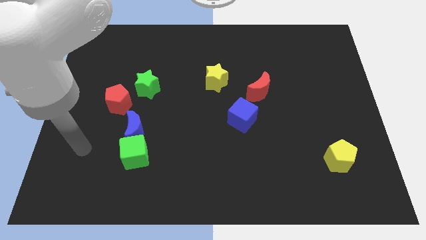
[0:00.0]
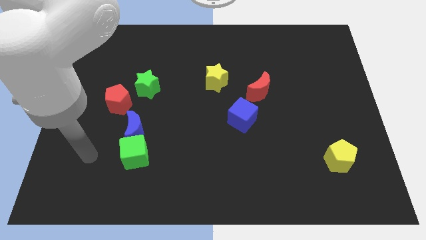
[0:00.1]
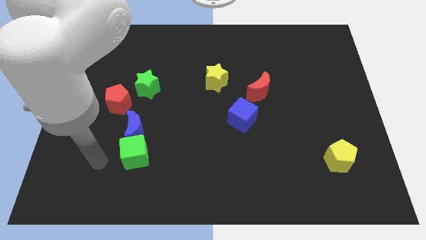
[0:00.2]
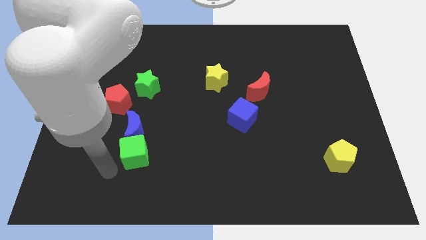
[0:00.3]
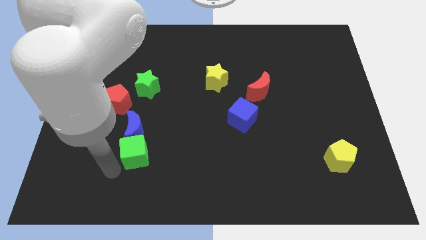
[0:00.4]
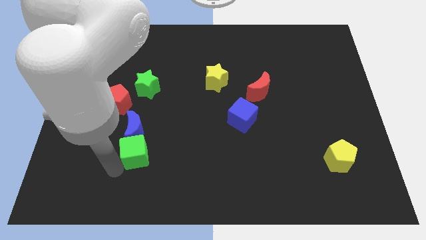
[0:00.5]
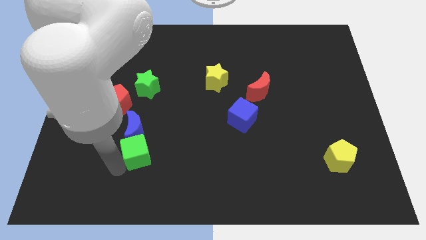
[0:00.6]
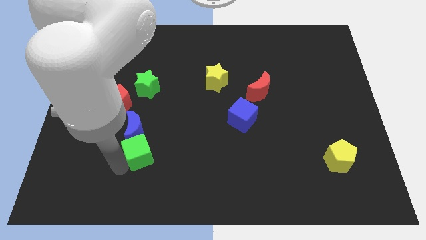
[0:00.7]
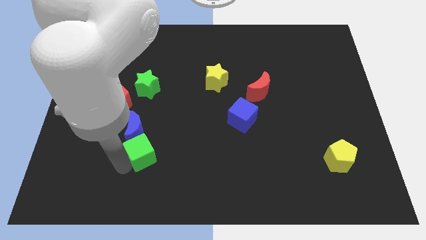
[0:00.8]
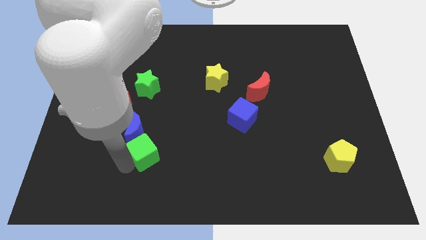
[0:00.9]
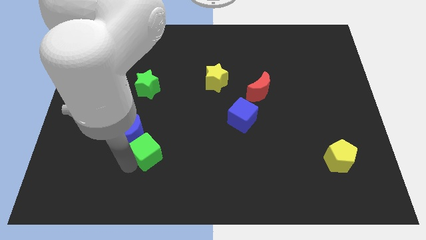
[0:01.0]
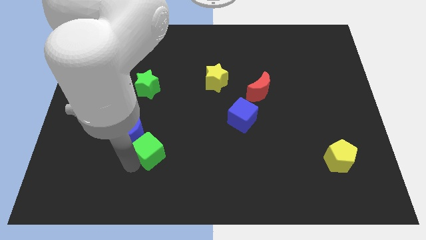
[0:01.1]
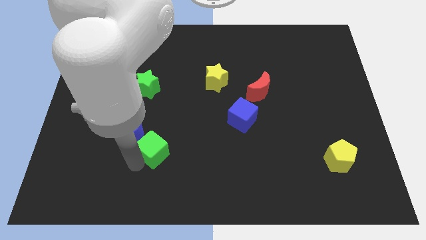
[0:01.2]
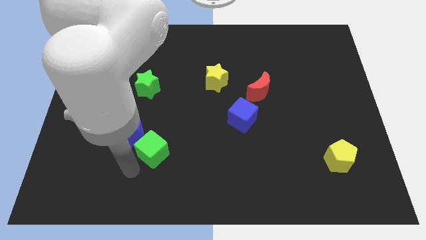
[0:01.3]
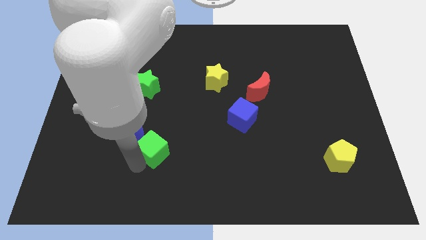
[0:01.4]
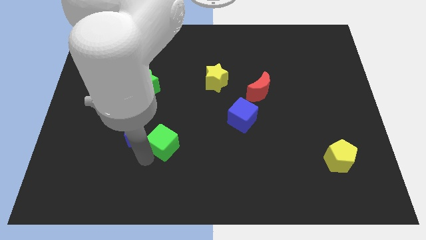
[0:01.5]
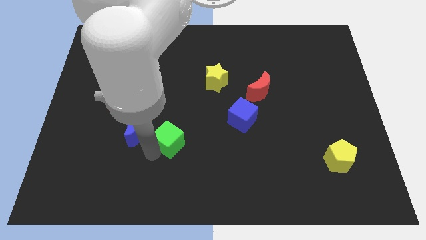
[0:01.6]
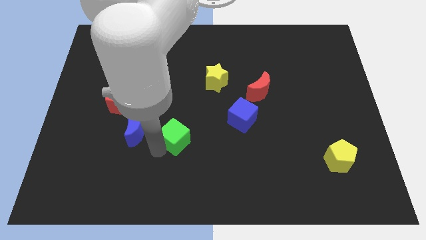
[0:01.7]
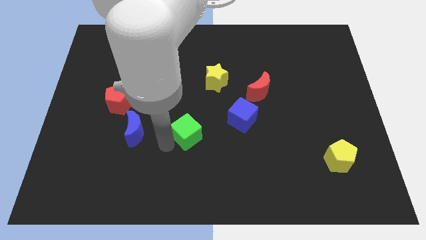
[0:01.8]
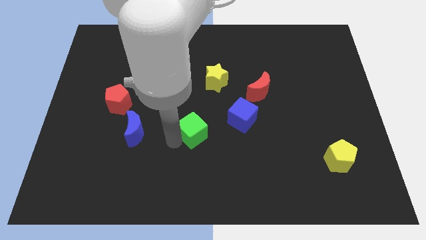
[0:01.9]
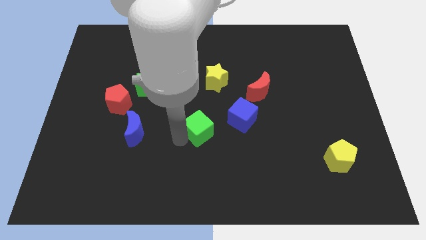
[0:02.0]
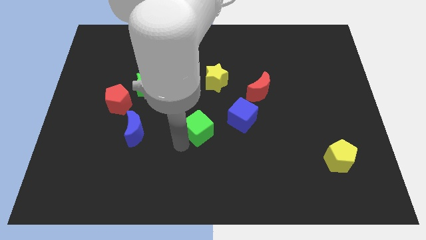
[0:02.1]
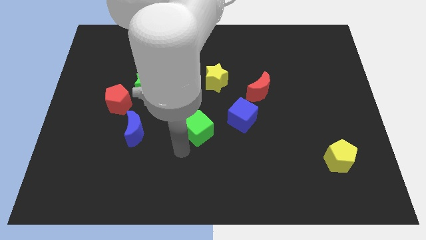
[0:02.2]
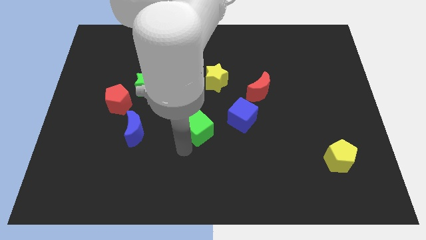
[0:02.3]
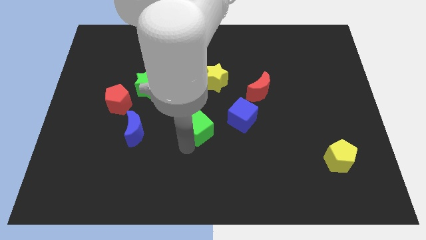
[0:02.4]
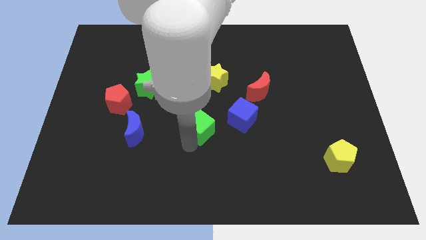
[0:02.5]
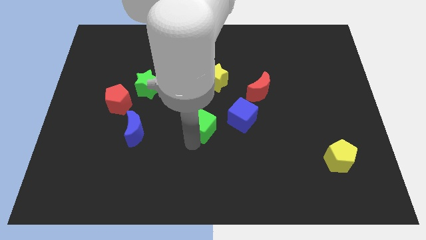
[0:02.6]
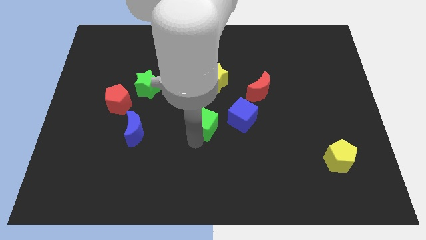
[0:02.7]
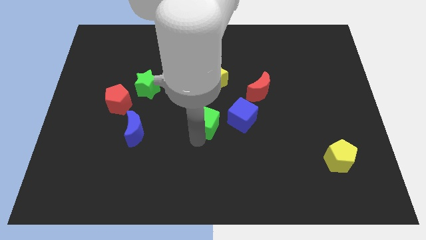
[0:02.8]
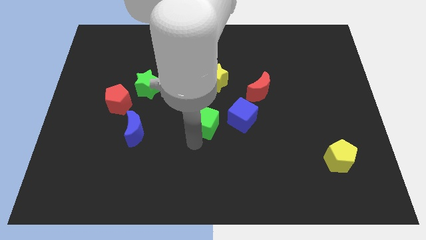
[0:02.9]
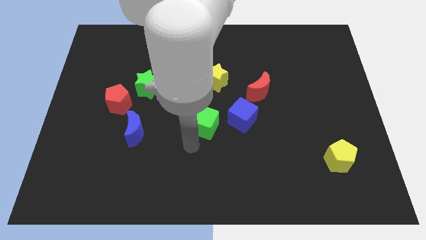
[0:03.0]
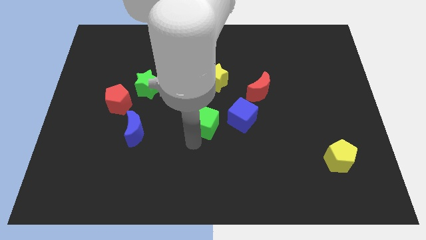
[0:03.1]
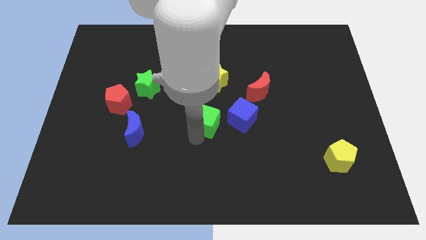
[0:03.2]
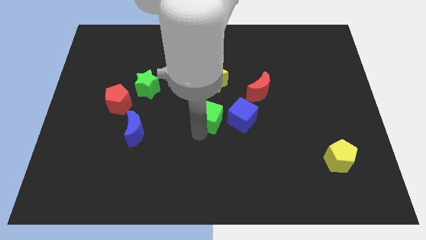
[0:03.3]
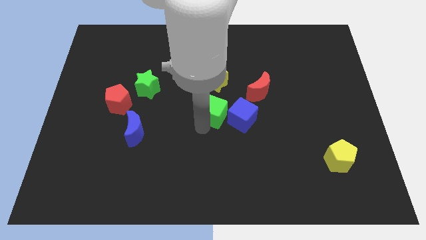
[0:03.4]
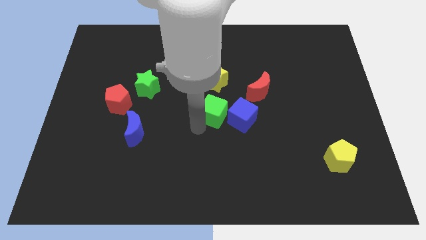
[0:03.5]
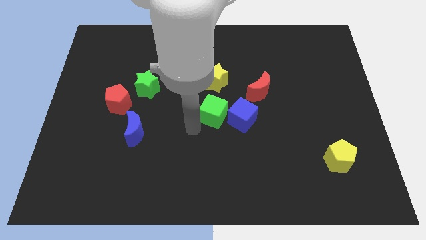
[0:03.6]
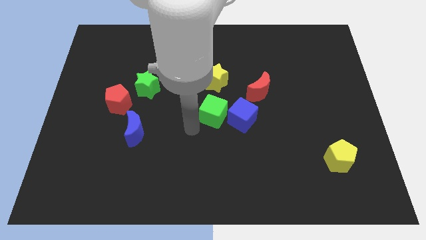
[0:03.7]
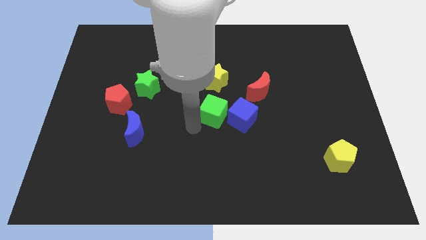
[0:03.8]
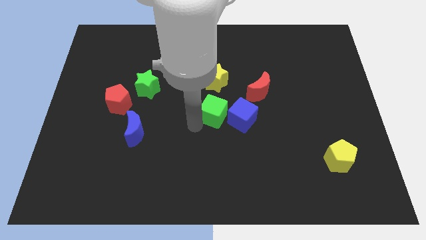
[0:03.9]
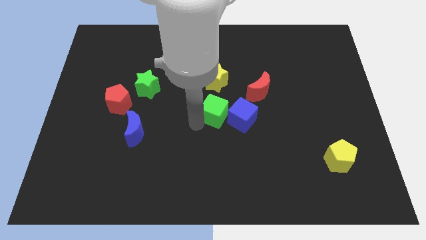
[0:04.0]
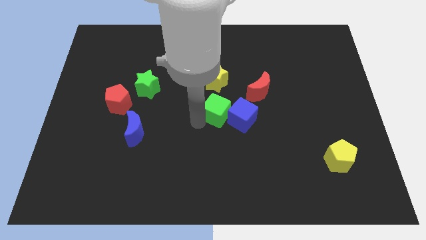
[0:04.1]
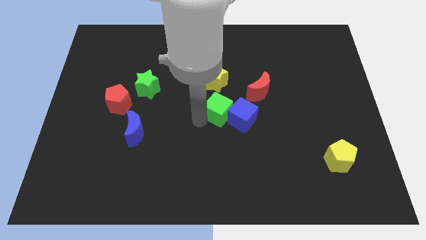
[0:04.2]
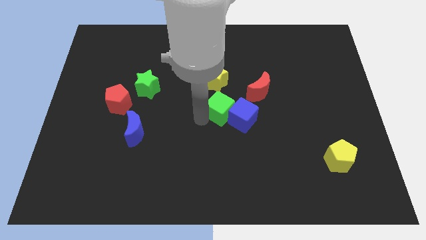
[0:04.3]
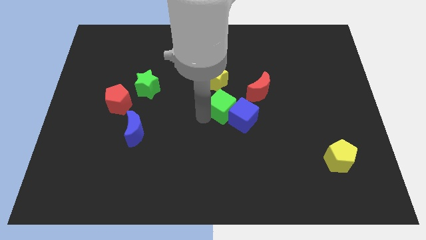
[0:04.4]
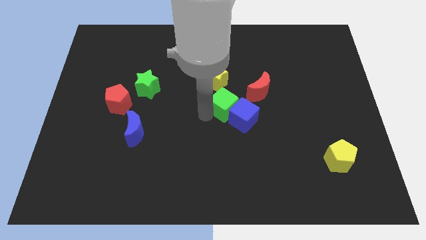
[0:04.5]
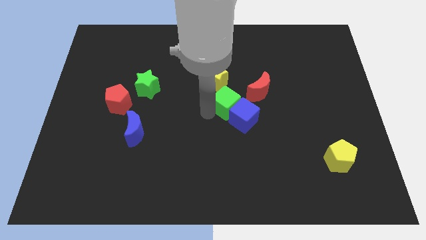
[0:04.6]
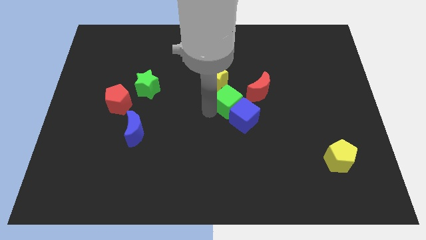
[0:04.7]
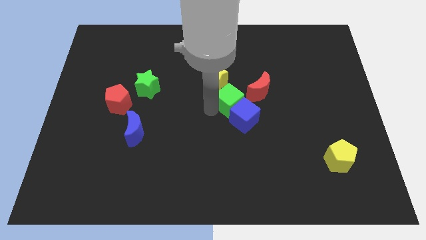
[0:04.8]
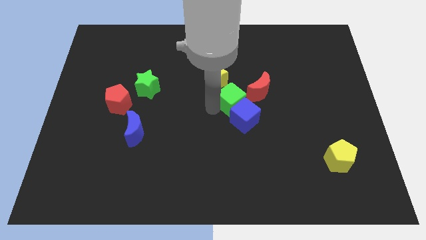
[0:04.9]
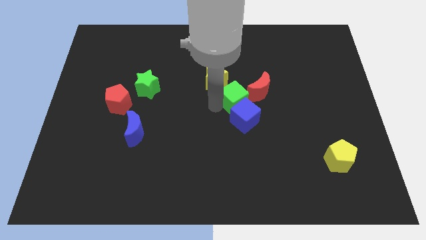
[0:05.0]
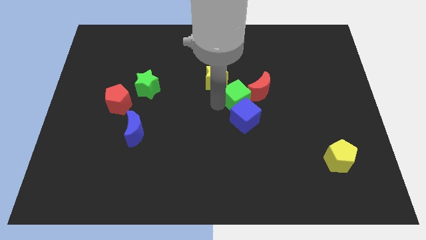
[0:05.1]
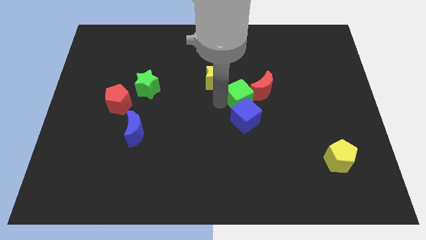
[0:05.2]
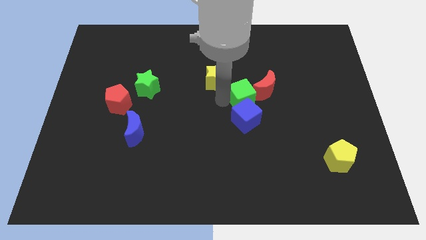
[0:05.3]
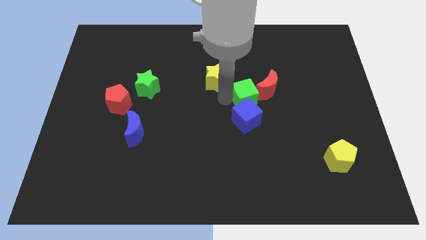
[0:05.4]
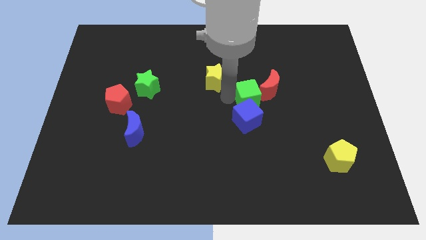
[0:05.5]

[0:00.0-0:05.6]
put the green cube to the red moon

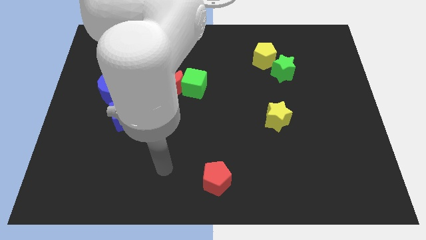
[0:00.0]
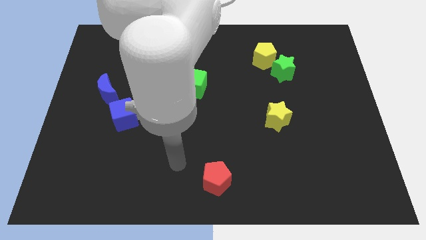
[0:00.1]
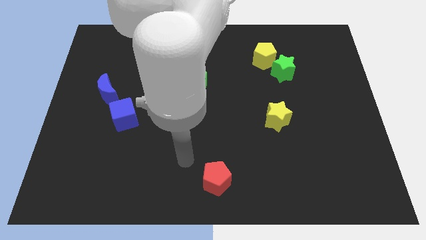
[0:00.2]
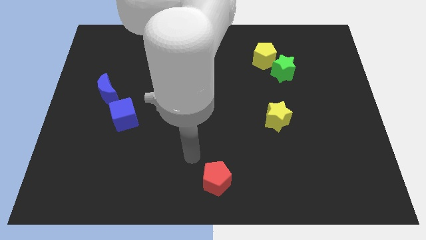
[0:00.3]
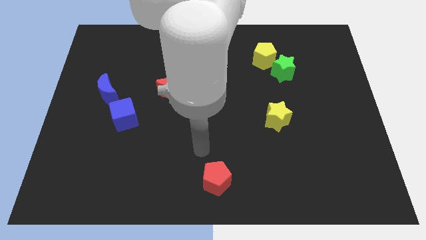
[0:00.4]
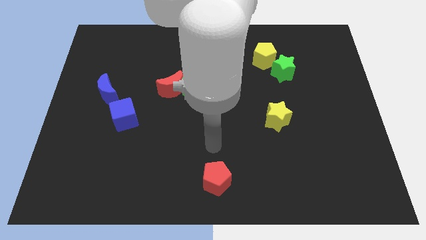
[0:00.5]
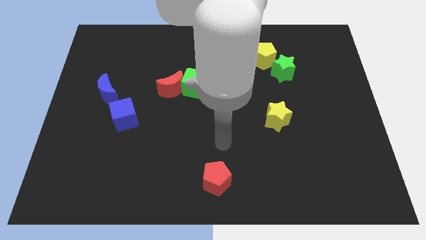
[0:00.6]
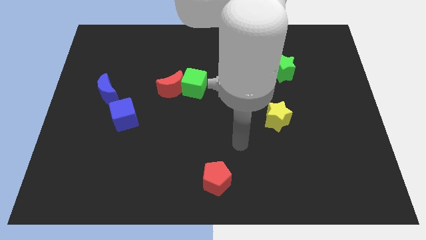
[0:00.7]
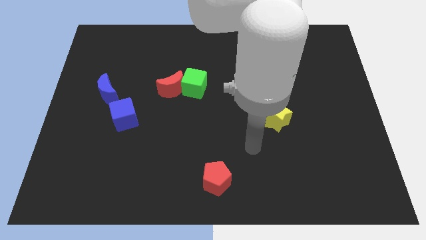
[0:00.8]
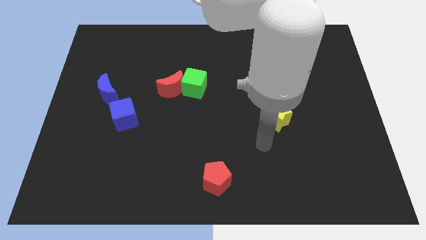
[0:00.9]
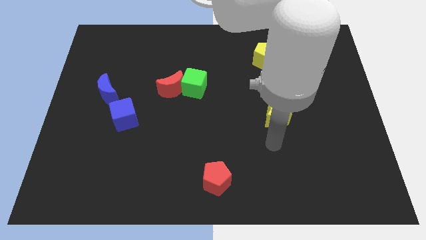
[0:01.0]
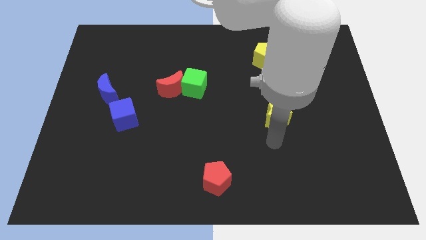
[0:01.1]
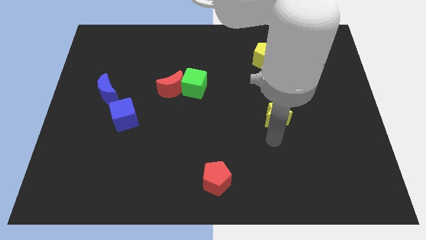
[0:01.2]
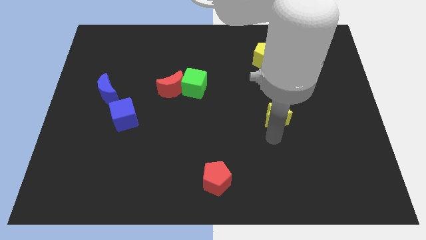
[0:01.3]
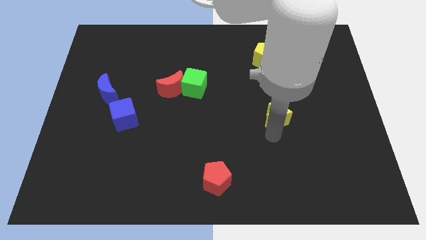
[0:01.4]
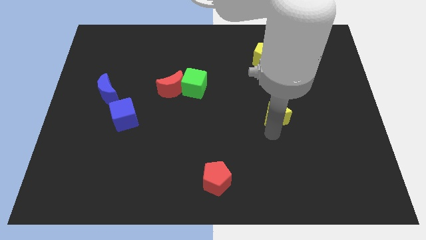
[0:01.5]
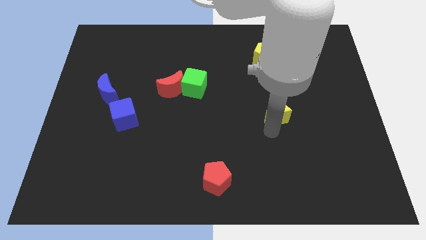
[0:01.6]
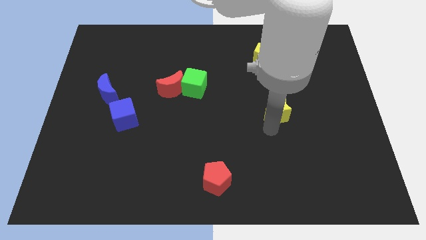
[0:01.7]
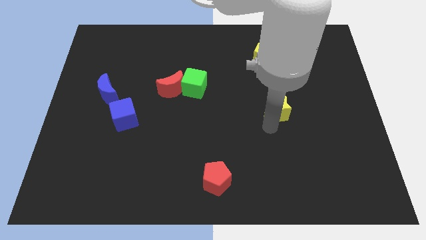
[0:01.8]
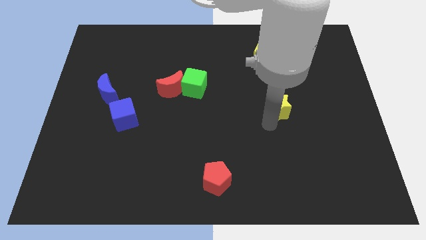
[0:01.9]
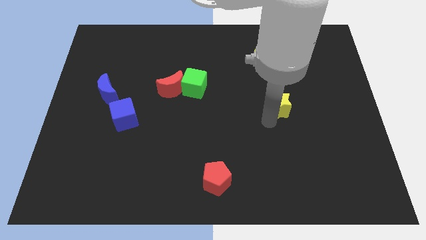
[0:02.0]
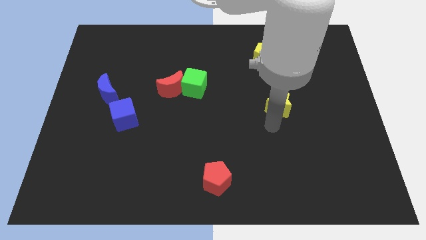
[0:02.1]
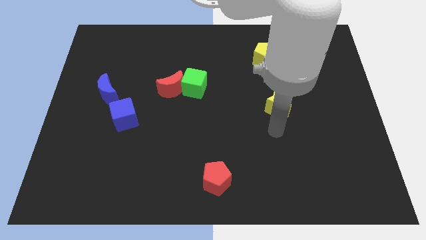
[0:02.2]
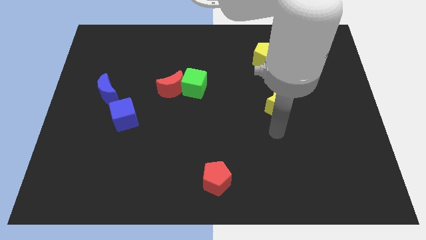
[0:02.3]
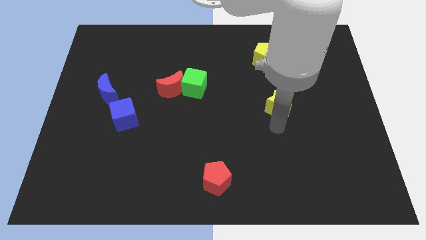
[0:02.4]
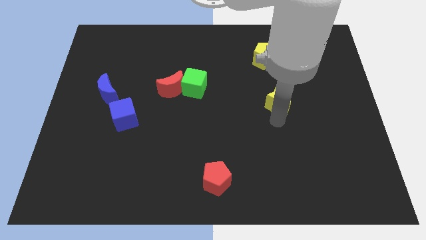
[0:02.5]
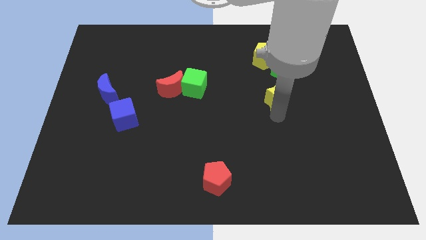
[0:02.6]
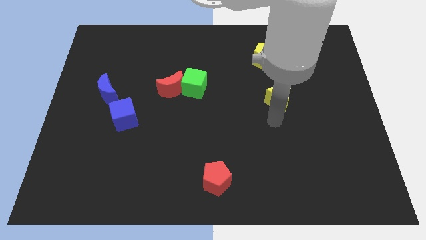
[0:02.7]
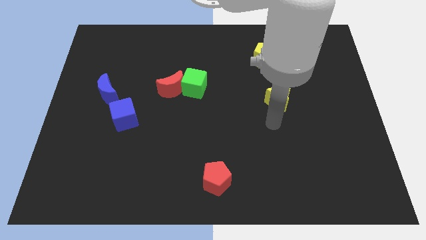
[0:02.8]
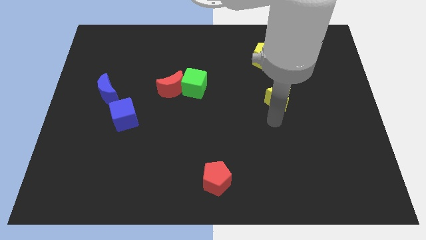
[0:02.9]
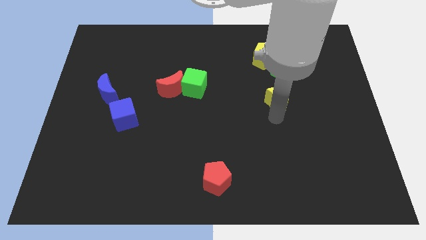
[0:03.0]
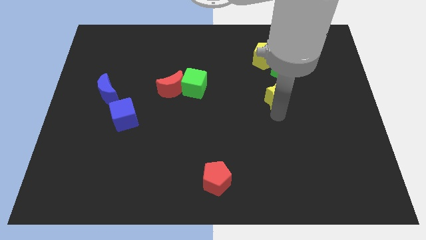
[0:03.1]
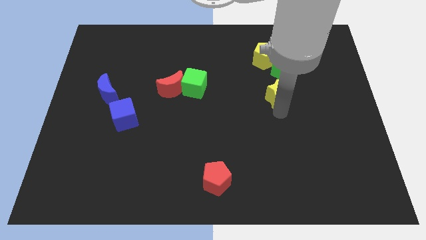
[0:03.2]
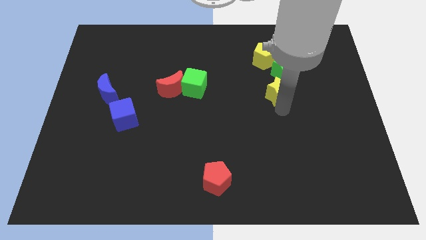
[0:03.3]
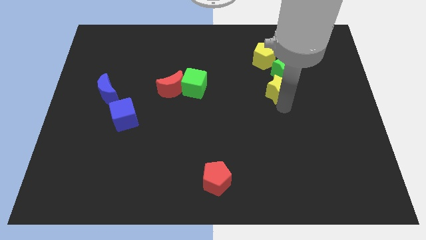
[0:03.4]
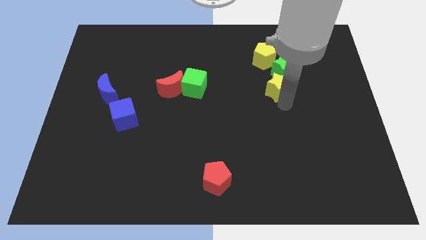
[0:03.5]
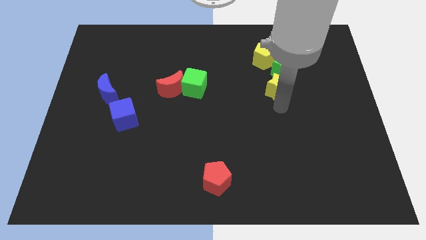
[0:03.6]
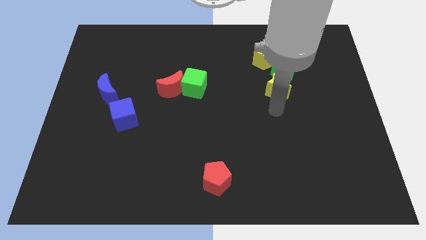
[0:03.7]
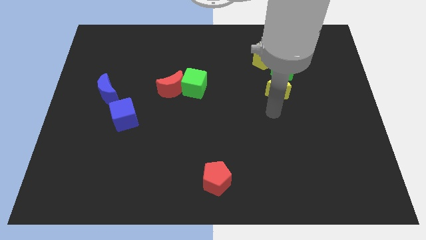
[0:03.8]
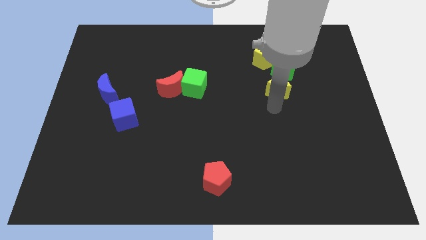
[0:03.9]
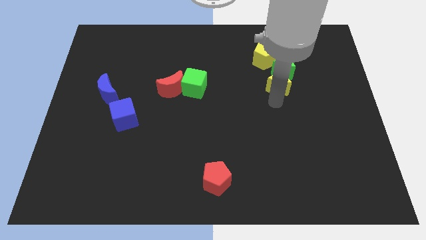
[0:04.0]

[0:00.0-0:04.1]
push the yellow star to the green star
